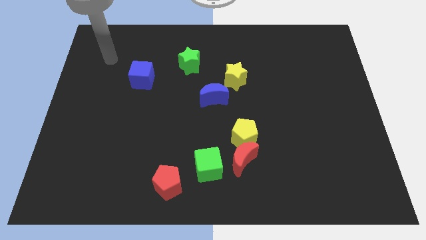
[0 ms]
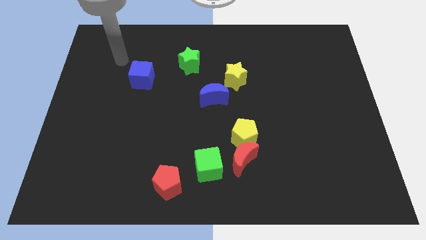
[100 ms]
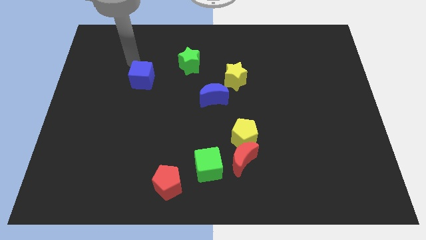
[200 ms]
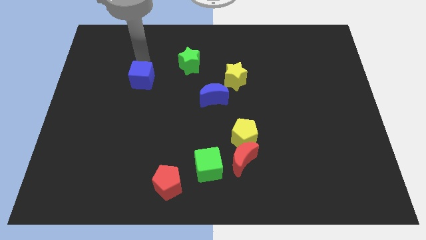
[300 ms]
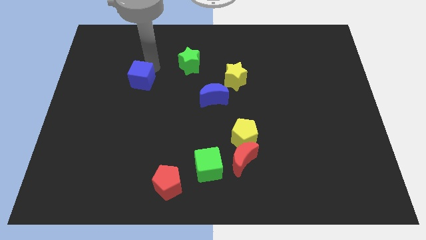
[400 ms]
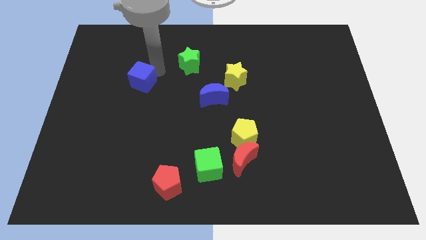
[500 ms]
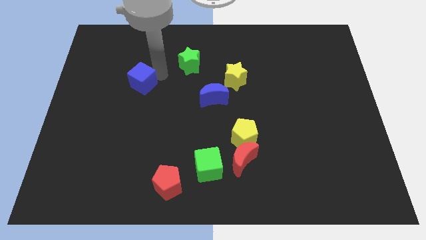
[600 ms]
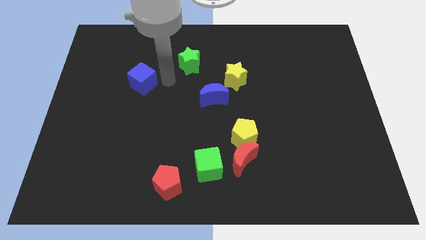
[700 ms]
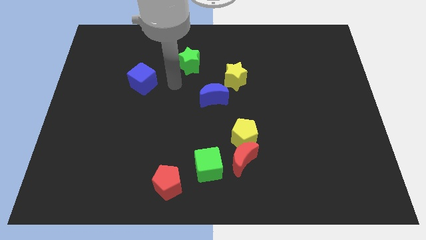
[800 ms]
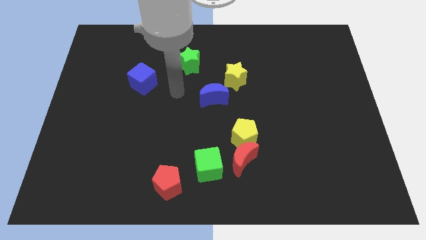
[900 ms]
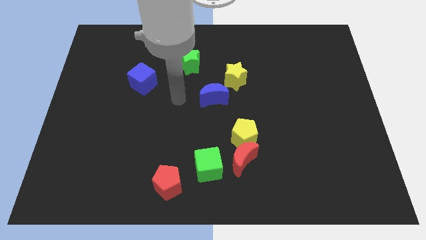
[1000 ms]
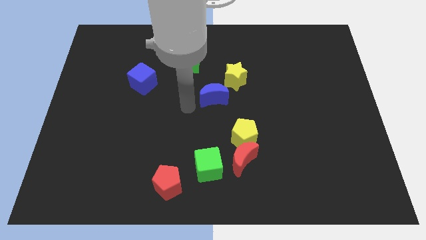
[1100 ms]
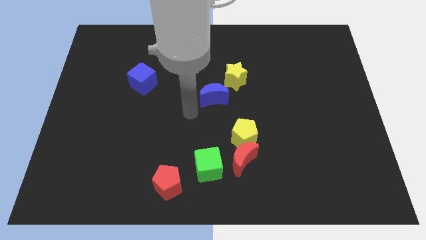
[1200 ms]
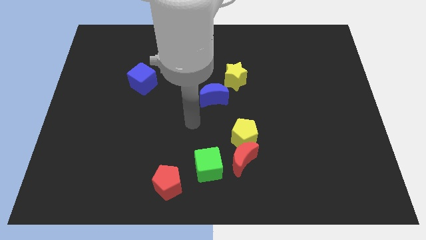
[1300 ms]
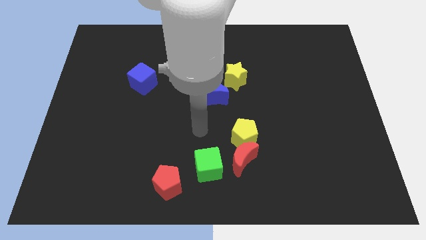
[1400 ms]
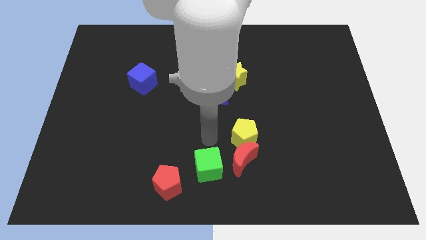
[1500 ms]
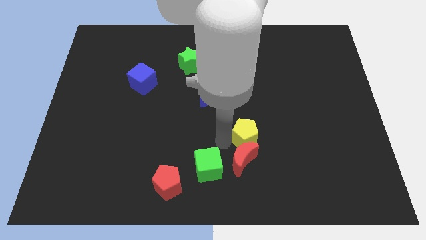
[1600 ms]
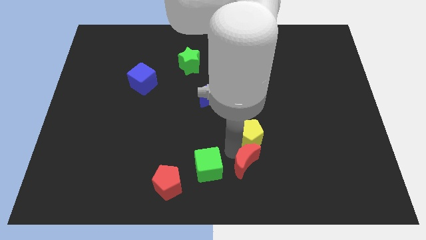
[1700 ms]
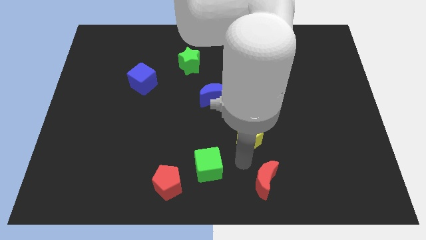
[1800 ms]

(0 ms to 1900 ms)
separate the yellow pentagon from the red moon

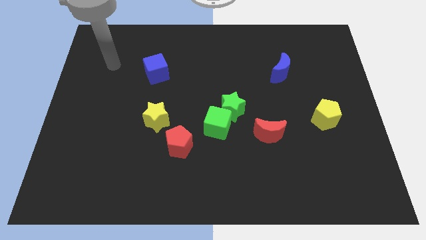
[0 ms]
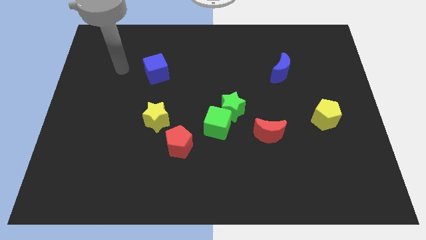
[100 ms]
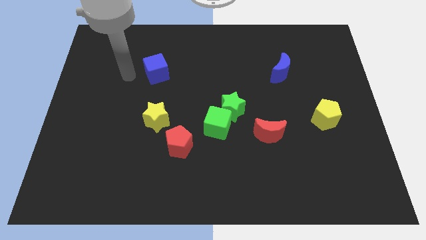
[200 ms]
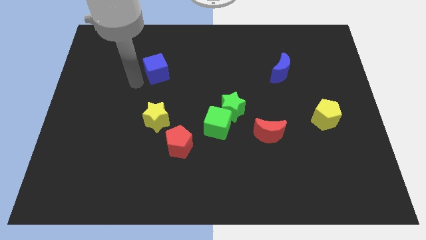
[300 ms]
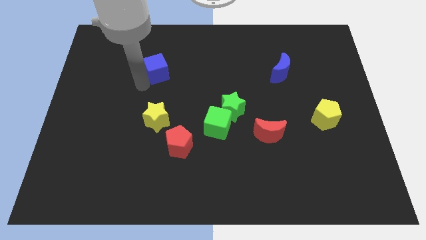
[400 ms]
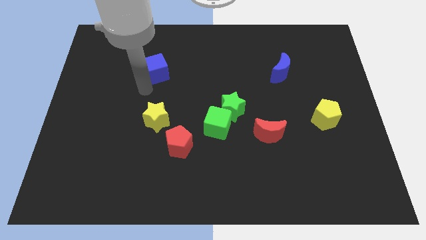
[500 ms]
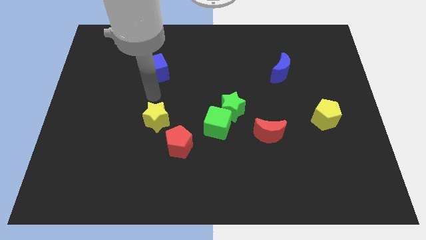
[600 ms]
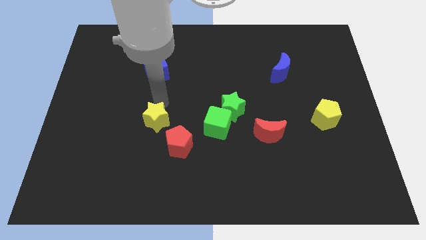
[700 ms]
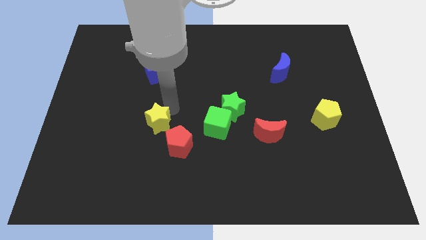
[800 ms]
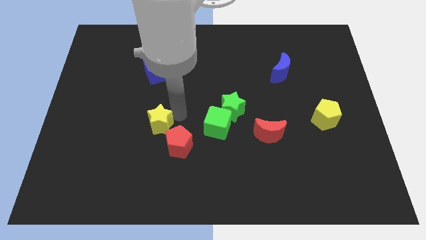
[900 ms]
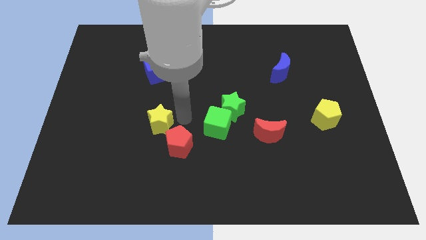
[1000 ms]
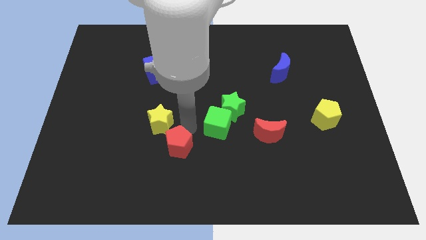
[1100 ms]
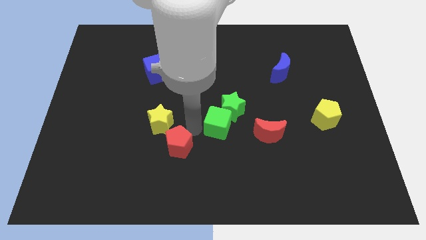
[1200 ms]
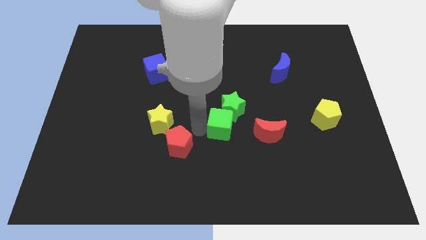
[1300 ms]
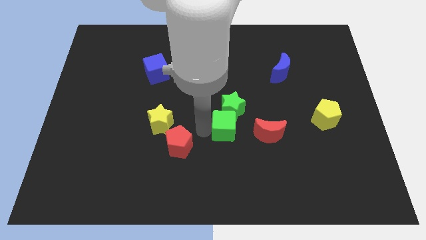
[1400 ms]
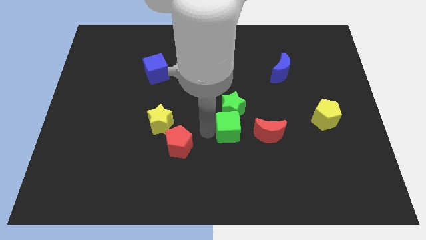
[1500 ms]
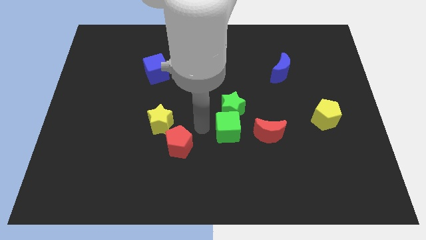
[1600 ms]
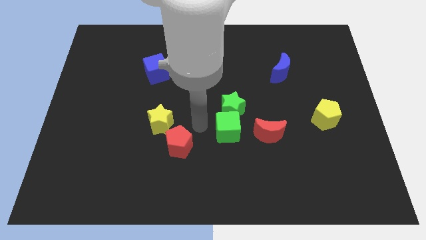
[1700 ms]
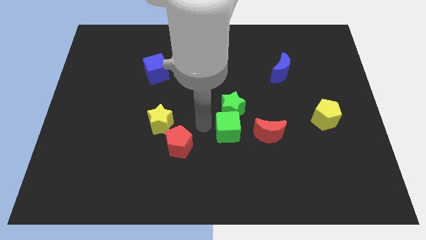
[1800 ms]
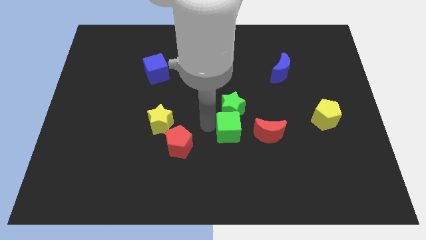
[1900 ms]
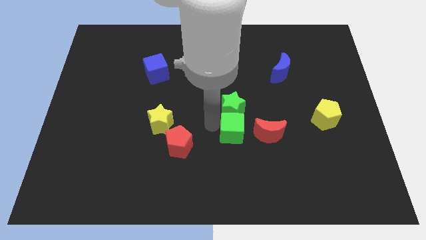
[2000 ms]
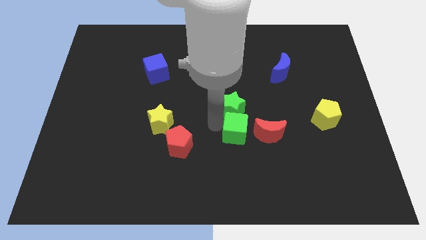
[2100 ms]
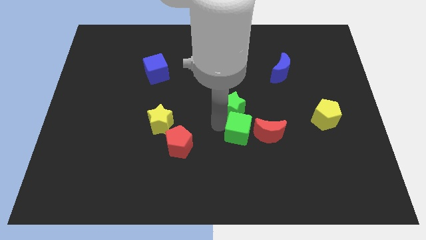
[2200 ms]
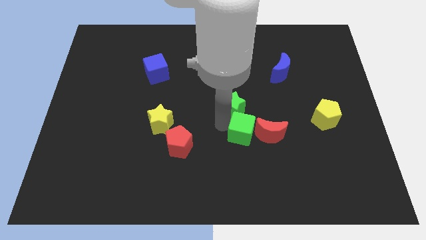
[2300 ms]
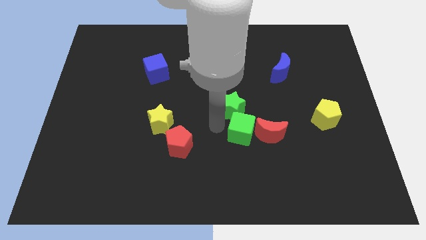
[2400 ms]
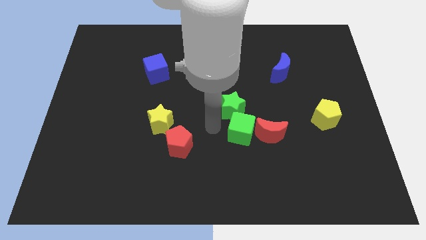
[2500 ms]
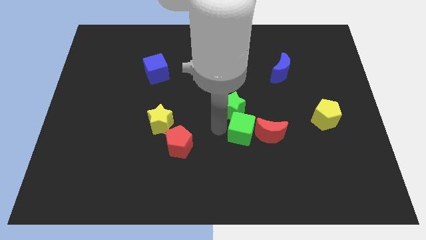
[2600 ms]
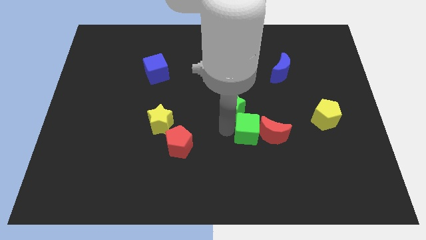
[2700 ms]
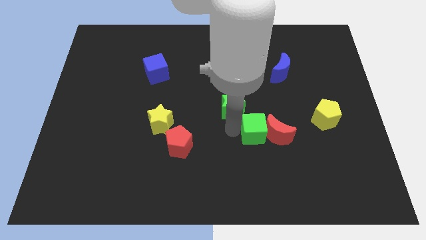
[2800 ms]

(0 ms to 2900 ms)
separate the green cube from the green star and red pentagon

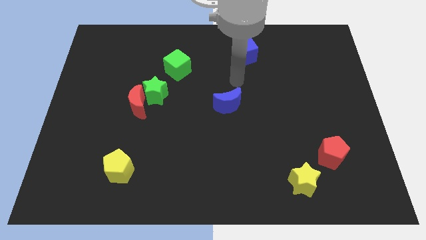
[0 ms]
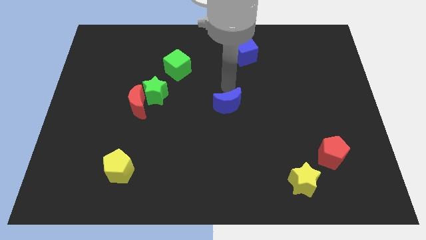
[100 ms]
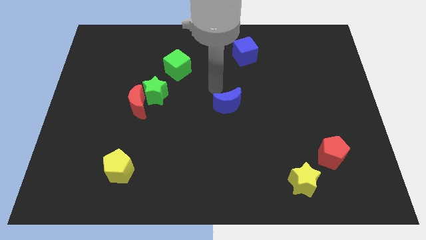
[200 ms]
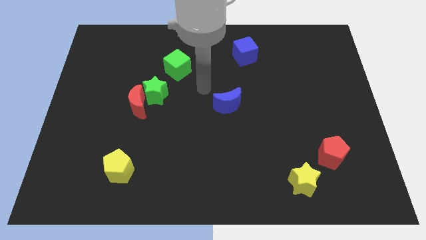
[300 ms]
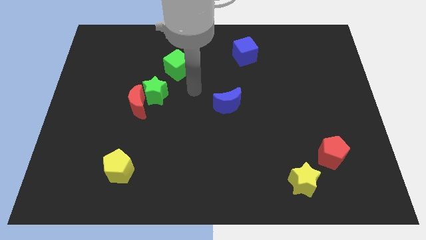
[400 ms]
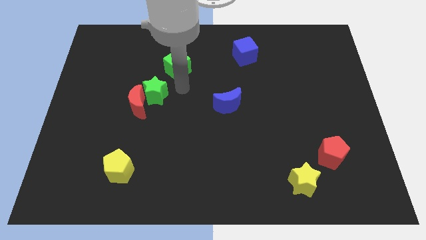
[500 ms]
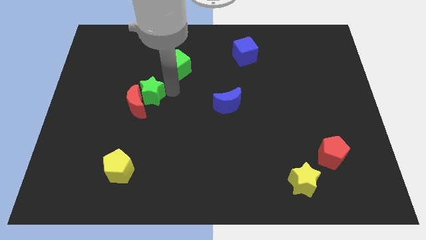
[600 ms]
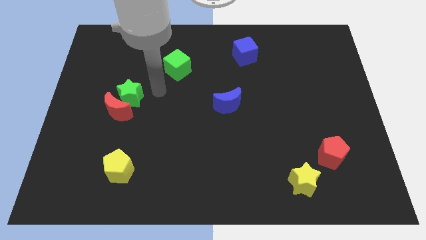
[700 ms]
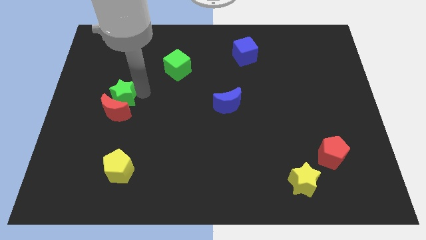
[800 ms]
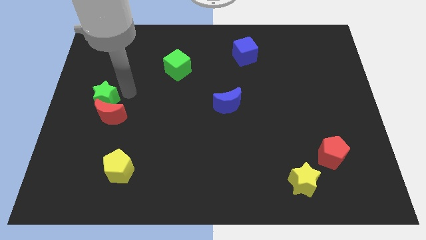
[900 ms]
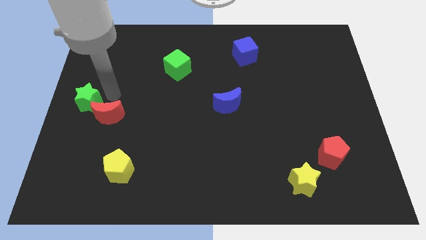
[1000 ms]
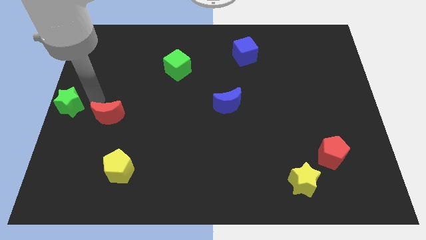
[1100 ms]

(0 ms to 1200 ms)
separate the red moon from the green star

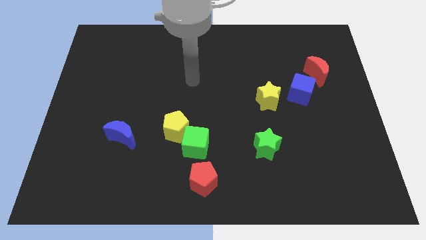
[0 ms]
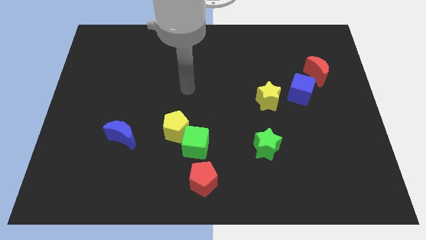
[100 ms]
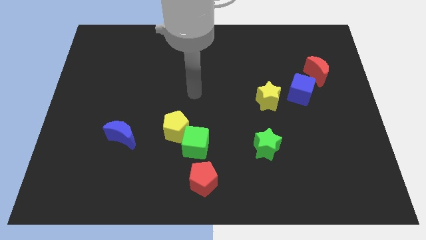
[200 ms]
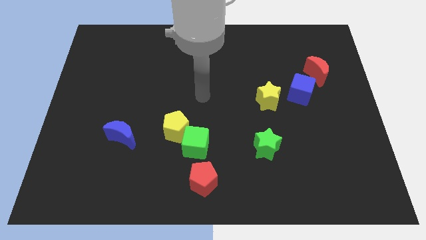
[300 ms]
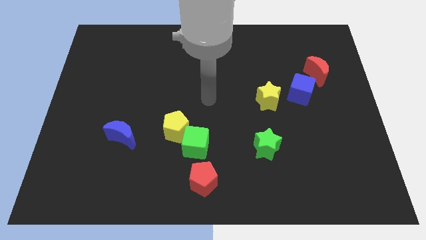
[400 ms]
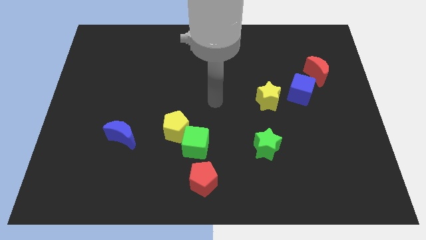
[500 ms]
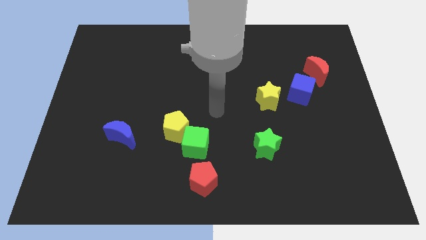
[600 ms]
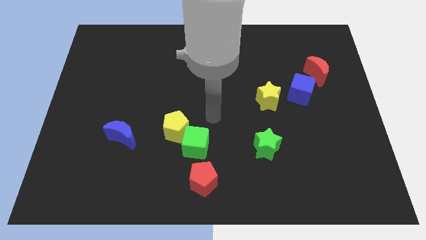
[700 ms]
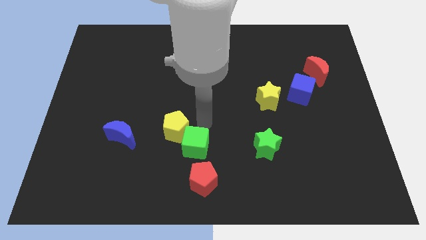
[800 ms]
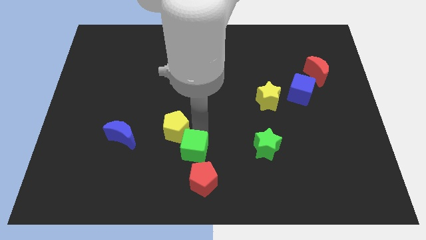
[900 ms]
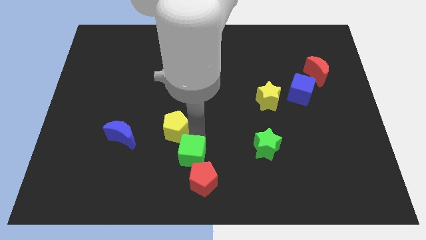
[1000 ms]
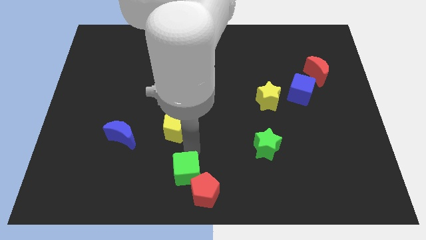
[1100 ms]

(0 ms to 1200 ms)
pull the yellow pentagon apart from the green cube

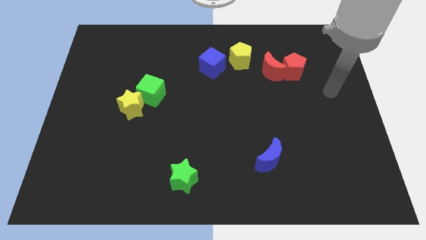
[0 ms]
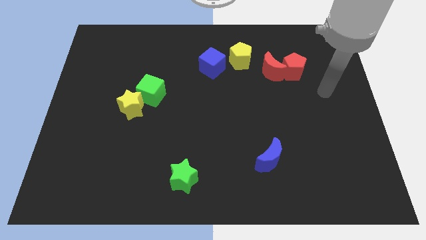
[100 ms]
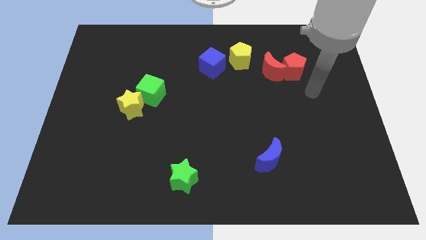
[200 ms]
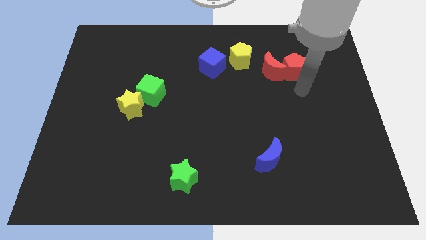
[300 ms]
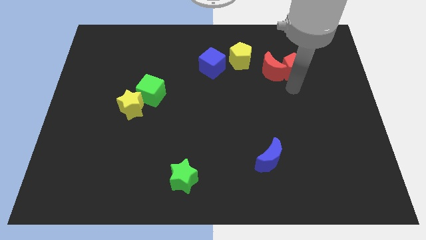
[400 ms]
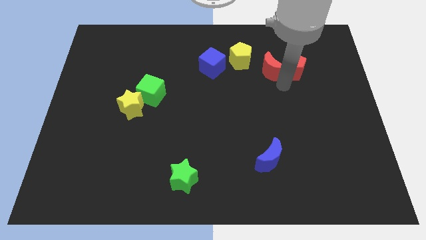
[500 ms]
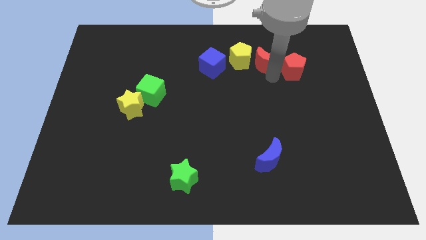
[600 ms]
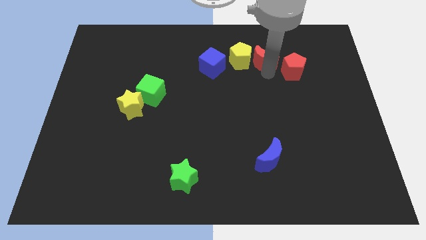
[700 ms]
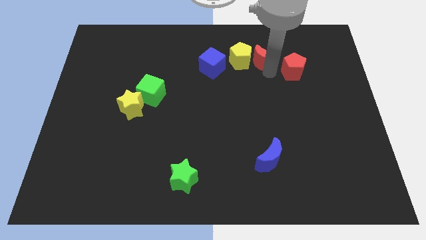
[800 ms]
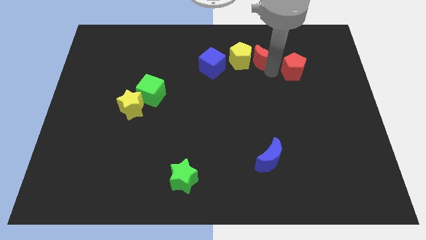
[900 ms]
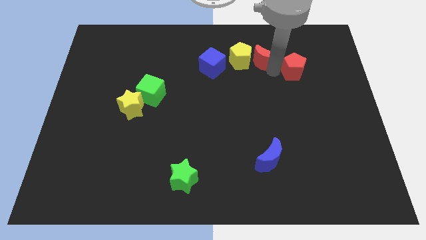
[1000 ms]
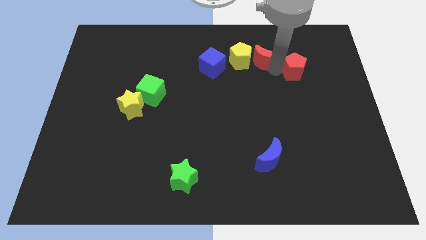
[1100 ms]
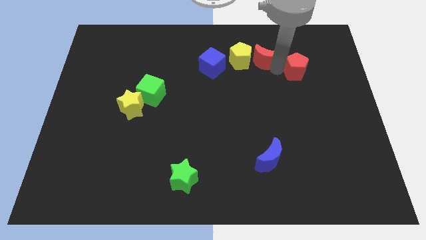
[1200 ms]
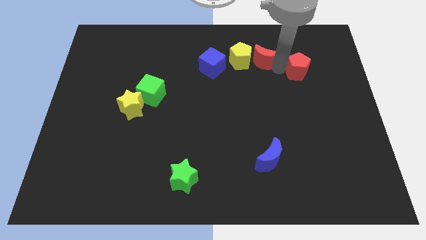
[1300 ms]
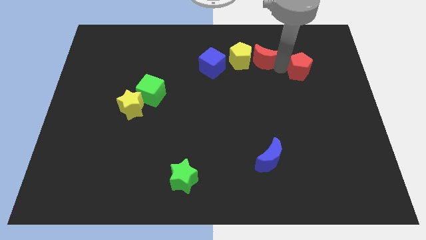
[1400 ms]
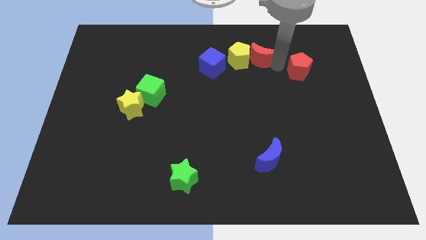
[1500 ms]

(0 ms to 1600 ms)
pull the red pentagon apart from the red moon

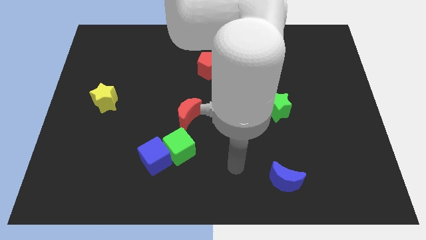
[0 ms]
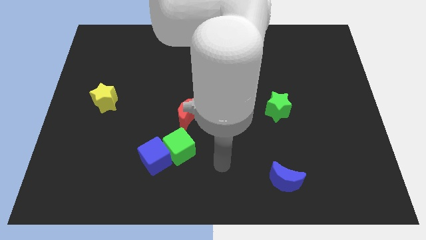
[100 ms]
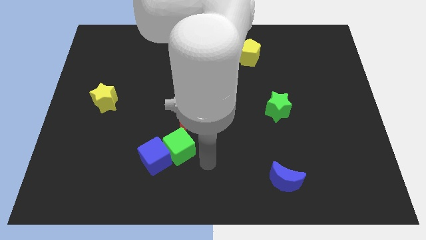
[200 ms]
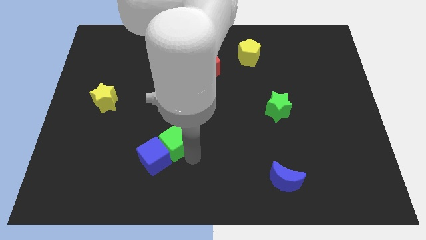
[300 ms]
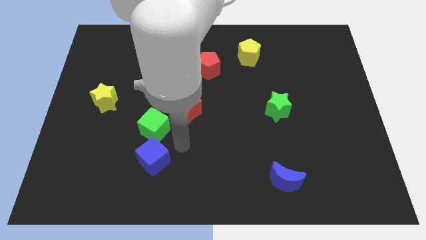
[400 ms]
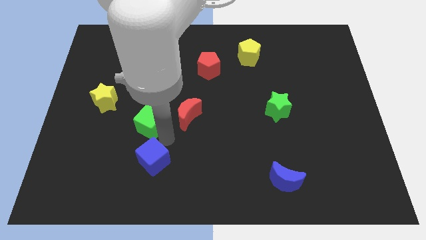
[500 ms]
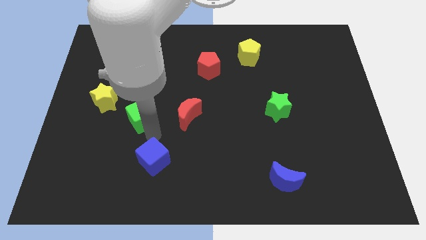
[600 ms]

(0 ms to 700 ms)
pull the blue cube apart from the green cube
